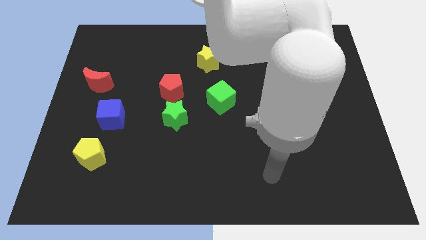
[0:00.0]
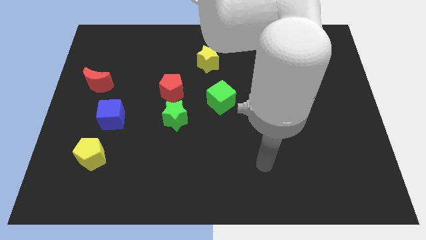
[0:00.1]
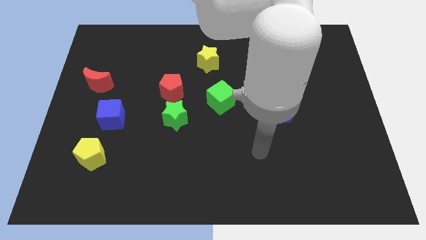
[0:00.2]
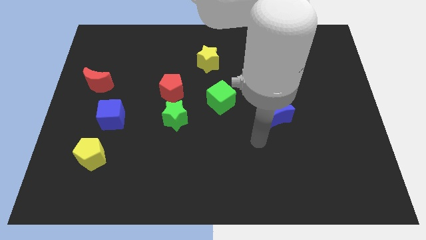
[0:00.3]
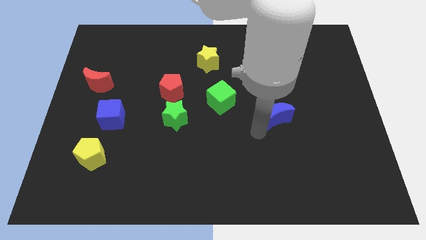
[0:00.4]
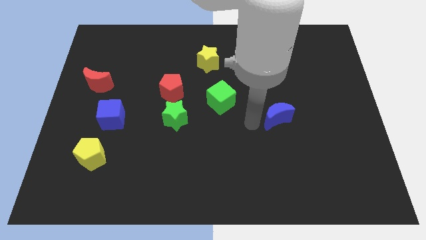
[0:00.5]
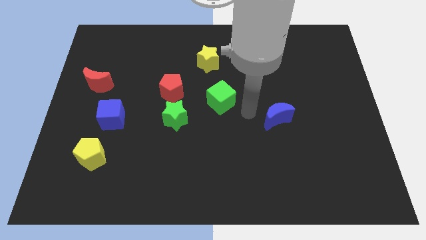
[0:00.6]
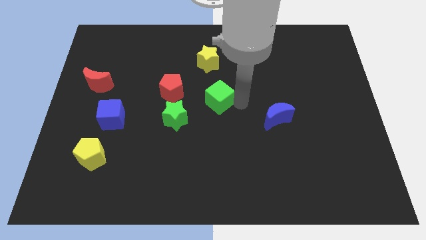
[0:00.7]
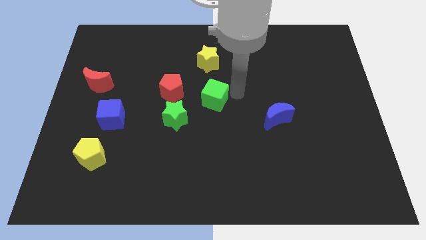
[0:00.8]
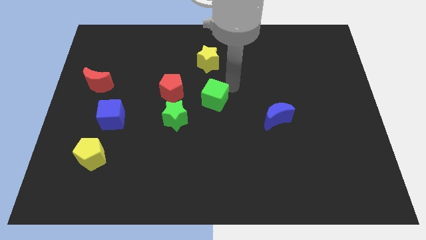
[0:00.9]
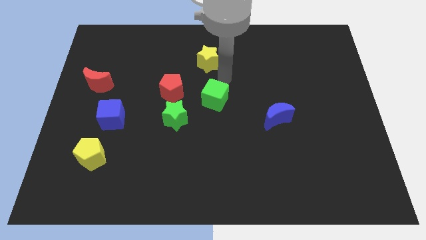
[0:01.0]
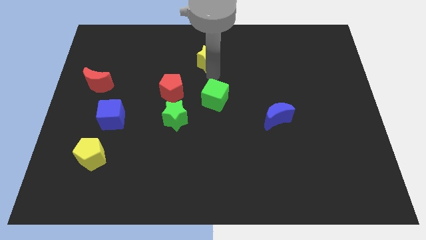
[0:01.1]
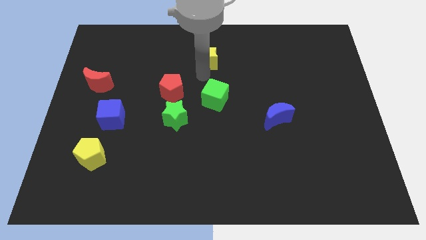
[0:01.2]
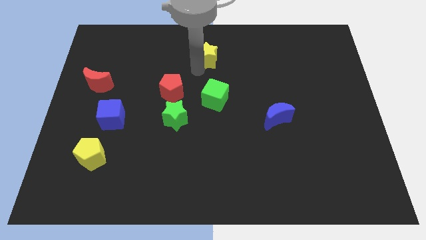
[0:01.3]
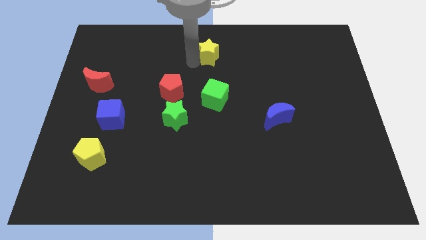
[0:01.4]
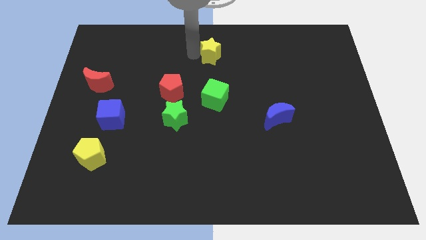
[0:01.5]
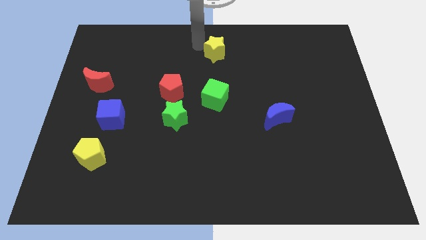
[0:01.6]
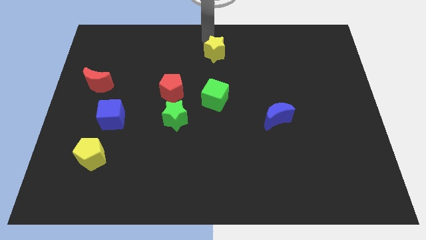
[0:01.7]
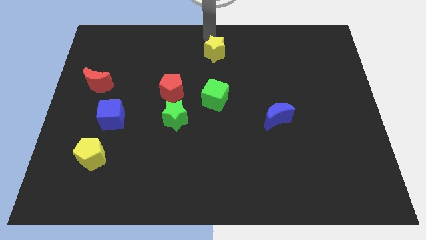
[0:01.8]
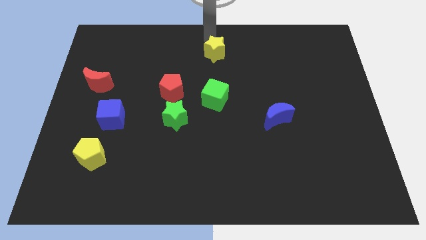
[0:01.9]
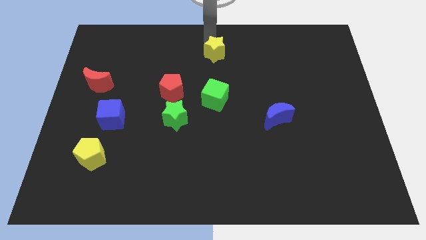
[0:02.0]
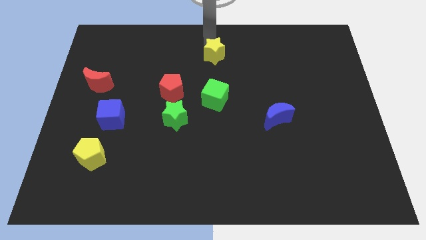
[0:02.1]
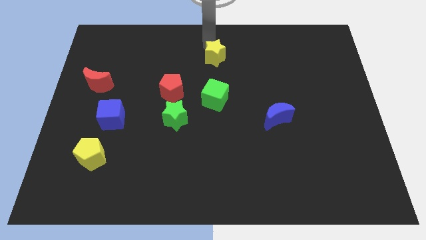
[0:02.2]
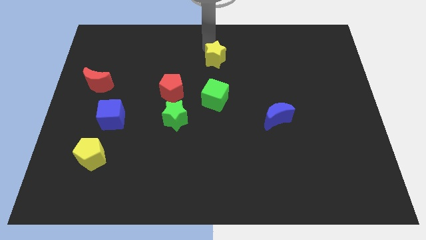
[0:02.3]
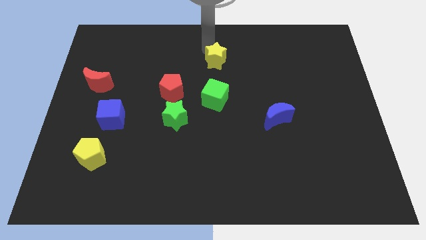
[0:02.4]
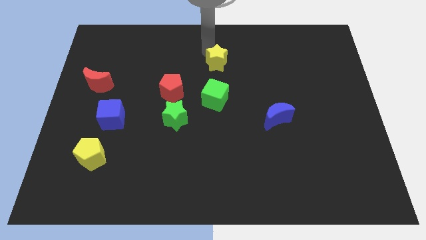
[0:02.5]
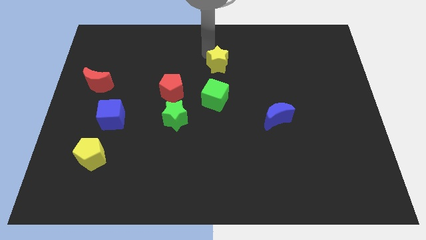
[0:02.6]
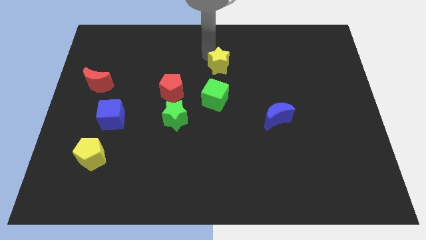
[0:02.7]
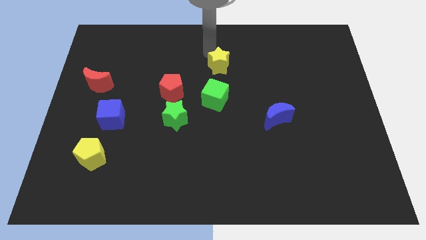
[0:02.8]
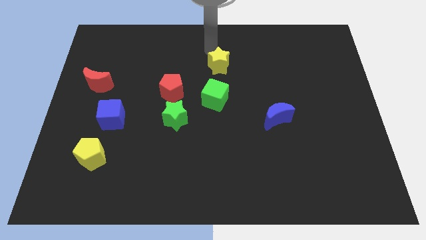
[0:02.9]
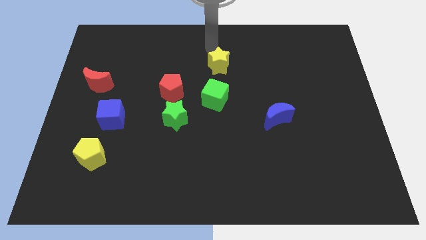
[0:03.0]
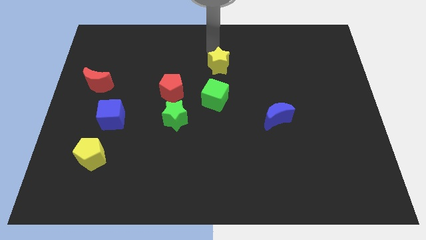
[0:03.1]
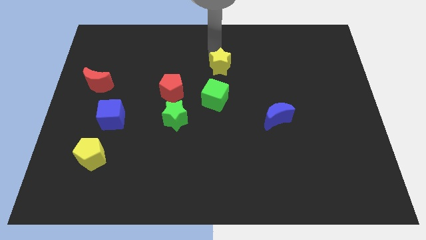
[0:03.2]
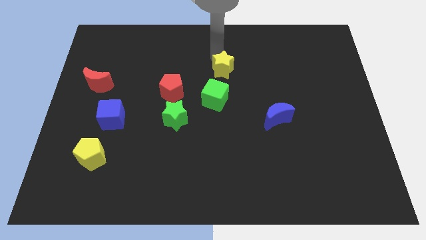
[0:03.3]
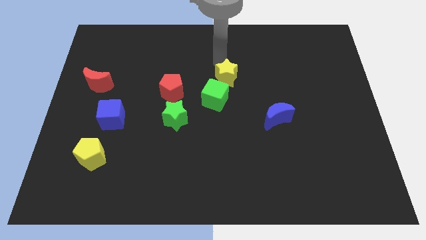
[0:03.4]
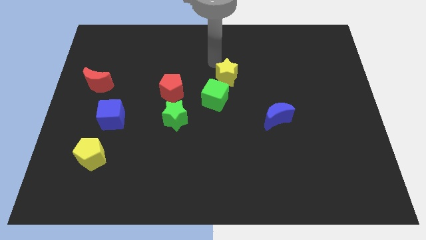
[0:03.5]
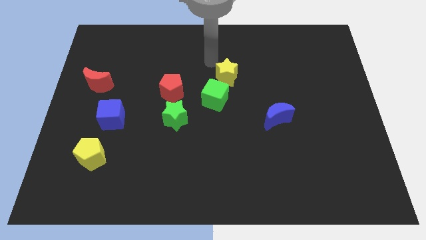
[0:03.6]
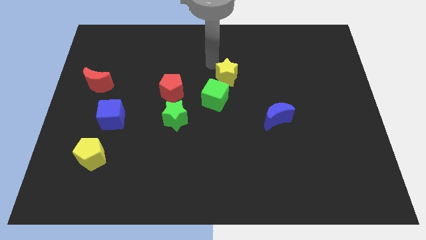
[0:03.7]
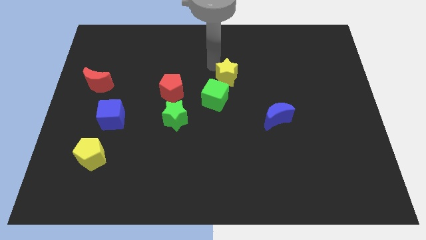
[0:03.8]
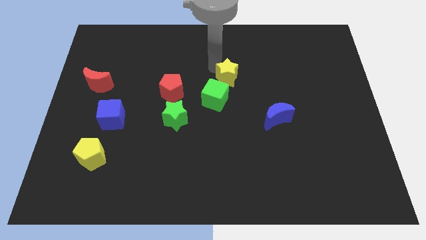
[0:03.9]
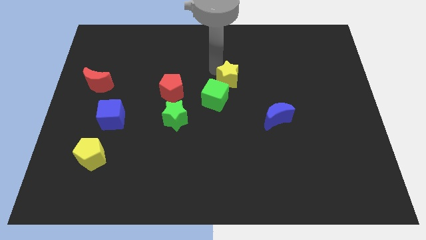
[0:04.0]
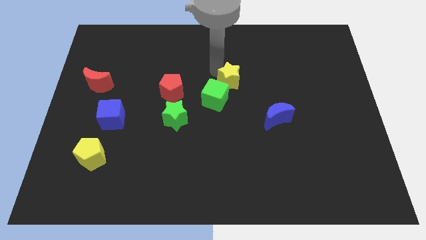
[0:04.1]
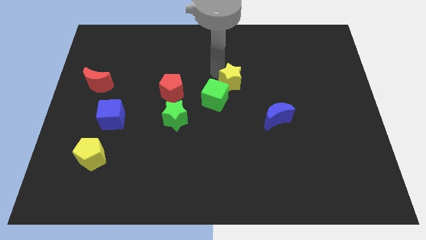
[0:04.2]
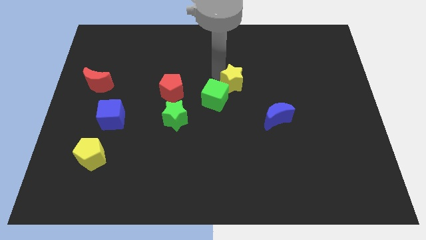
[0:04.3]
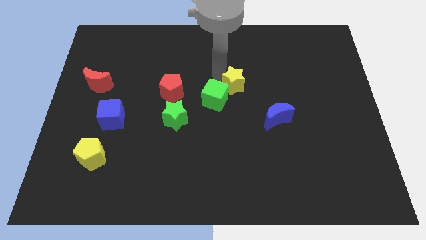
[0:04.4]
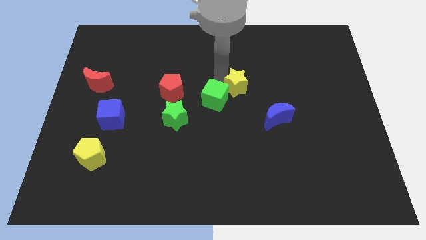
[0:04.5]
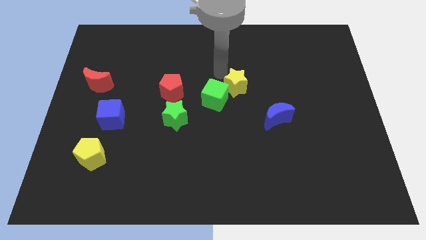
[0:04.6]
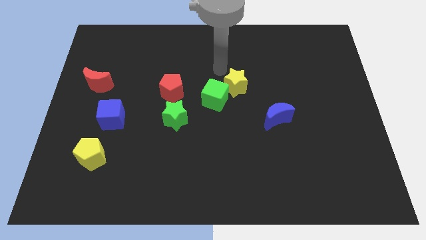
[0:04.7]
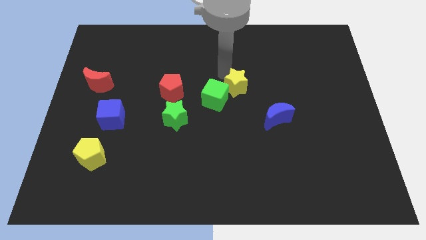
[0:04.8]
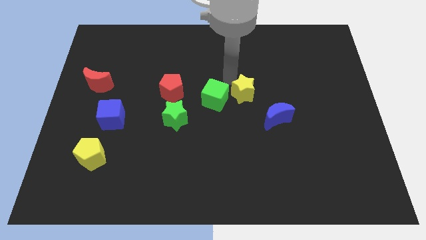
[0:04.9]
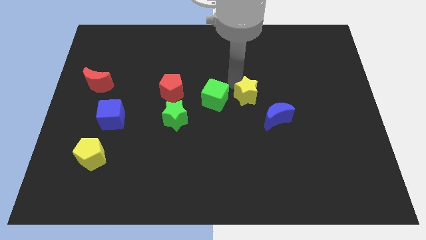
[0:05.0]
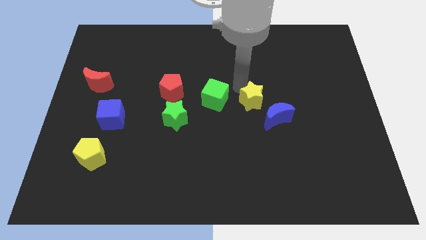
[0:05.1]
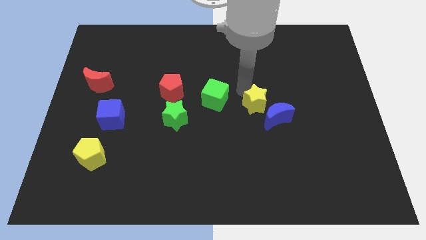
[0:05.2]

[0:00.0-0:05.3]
slide the yellow star next to the blue moon

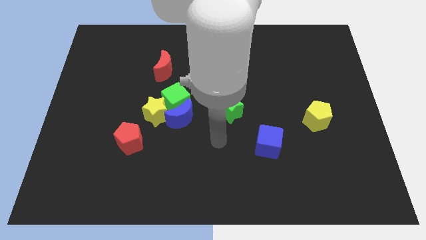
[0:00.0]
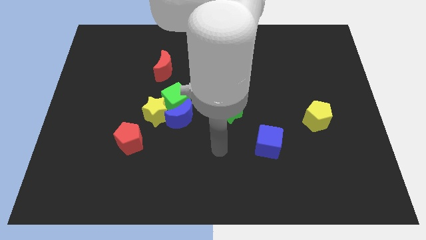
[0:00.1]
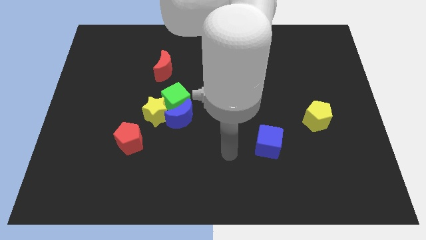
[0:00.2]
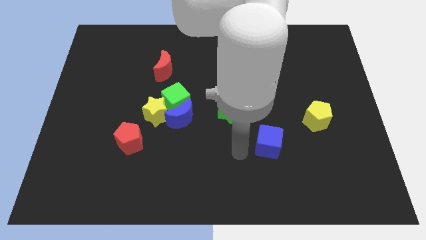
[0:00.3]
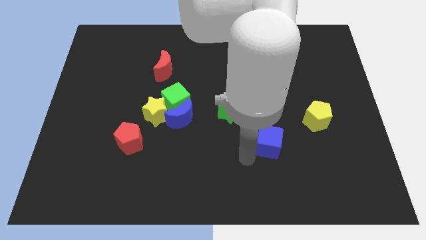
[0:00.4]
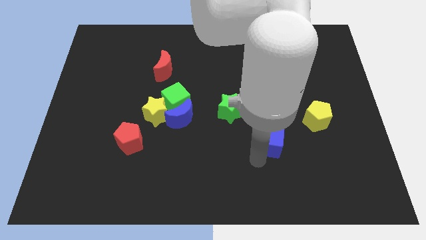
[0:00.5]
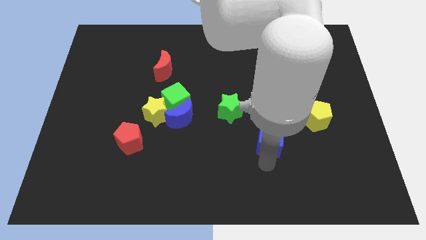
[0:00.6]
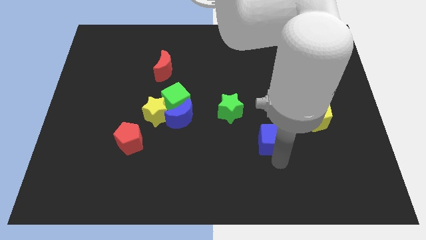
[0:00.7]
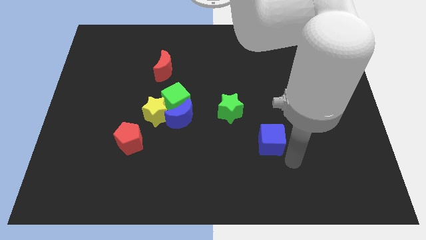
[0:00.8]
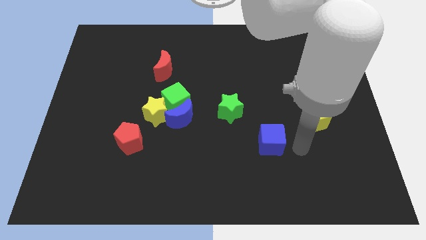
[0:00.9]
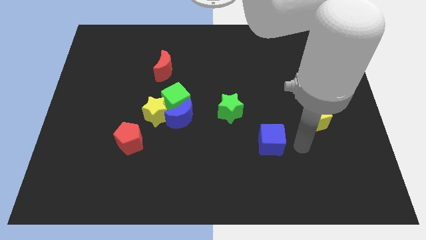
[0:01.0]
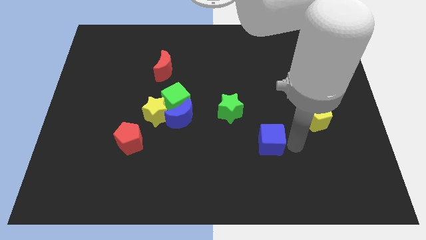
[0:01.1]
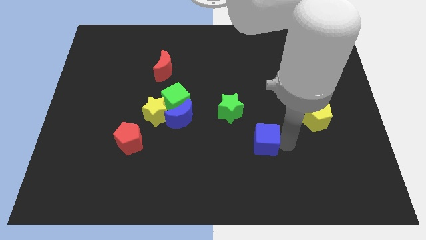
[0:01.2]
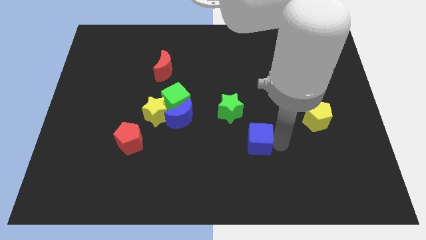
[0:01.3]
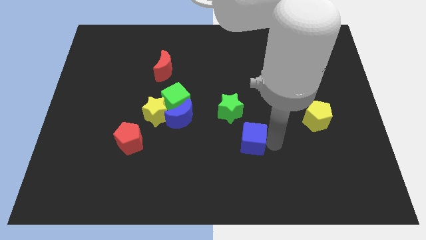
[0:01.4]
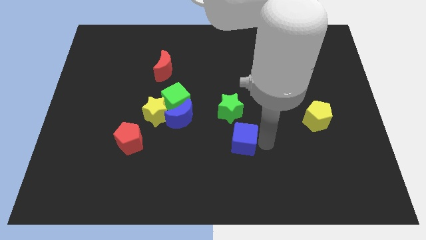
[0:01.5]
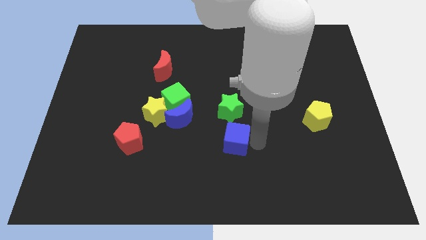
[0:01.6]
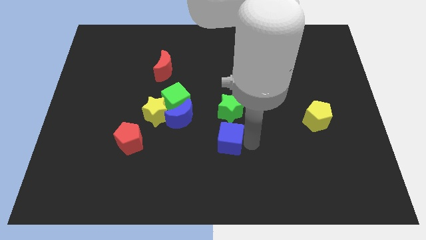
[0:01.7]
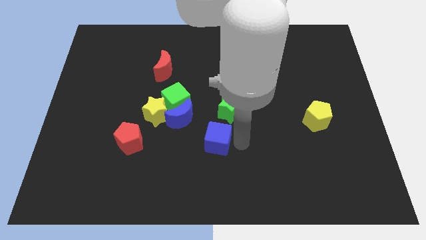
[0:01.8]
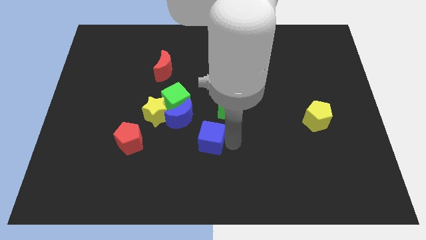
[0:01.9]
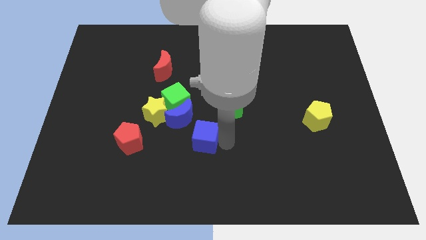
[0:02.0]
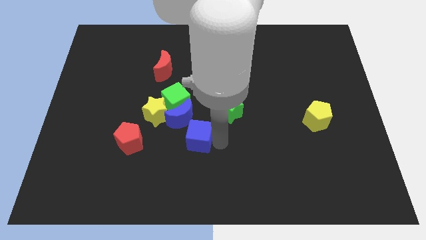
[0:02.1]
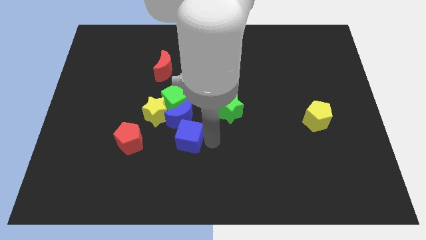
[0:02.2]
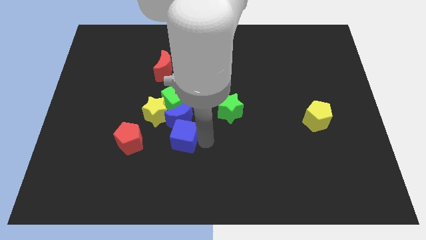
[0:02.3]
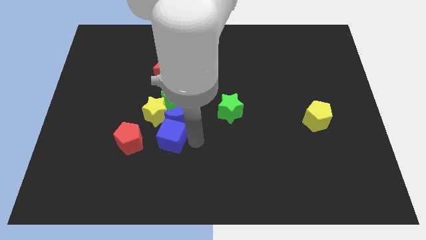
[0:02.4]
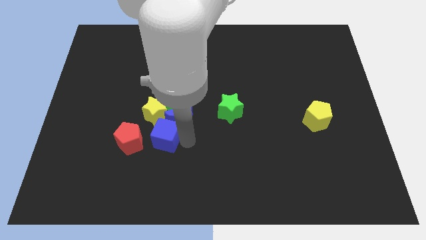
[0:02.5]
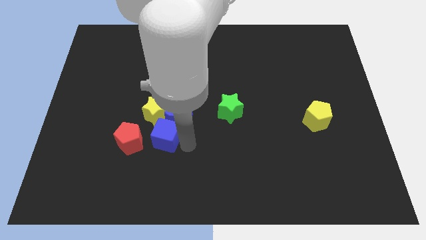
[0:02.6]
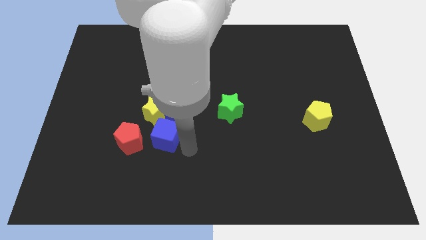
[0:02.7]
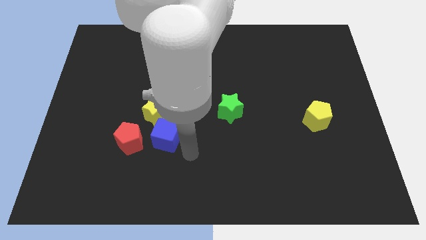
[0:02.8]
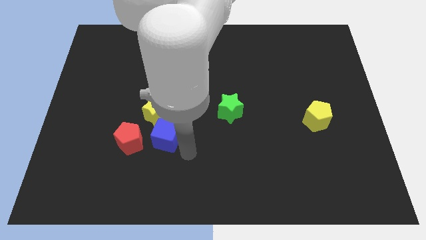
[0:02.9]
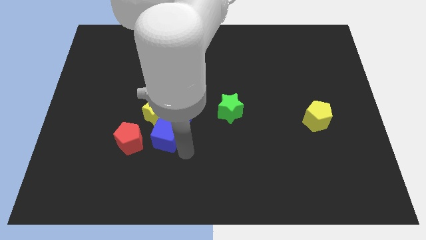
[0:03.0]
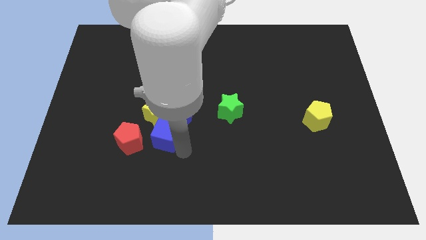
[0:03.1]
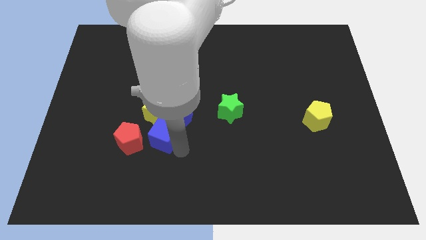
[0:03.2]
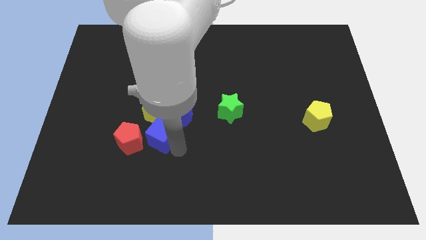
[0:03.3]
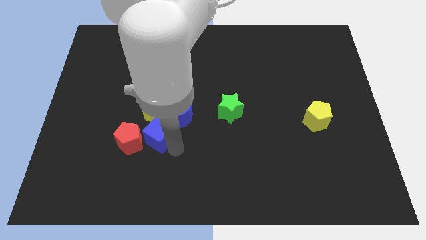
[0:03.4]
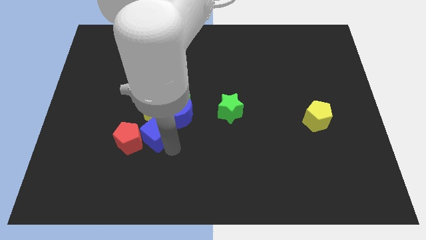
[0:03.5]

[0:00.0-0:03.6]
push the blue cube towards the yellow star
